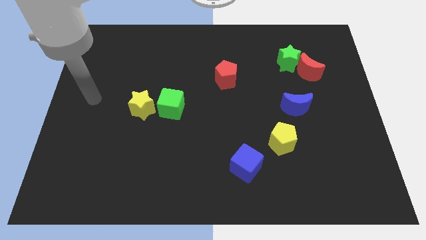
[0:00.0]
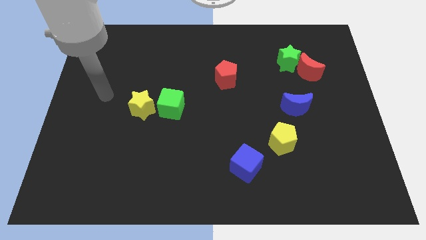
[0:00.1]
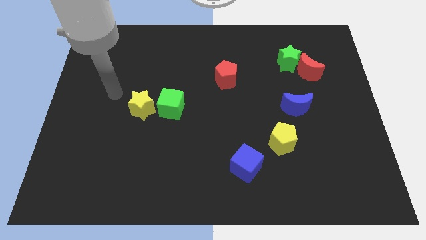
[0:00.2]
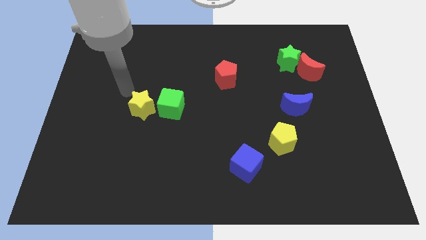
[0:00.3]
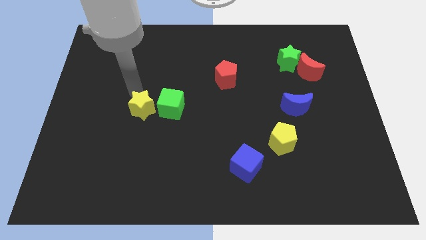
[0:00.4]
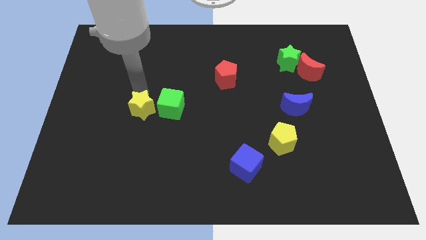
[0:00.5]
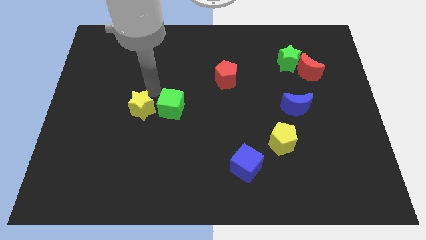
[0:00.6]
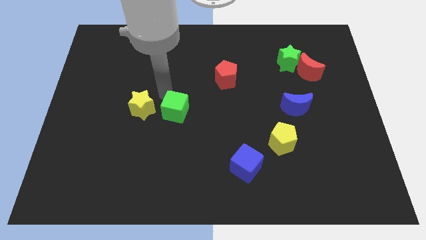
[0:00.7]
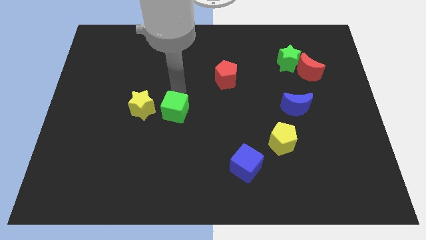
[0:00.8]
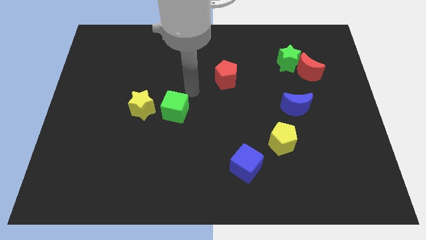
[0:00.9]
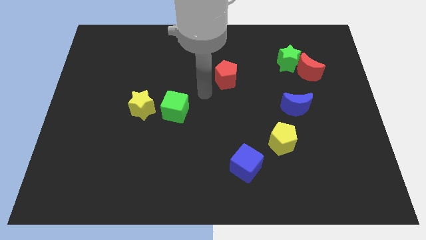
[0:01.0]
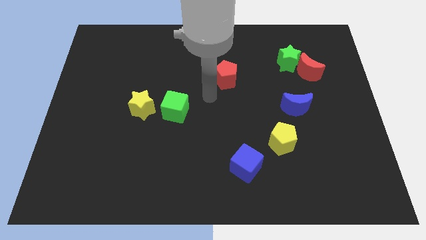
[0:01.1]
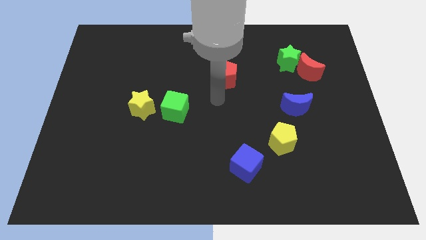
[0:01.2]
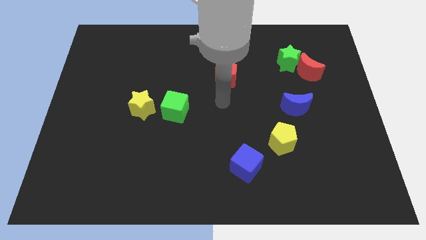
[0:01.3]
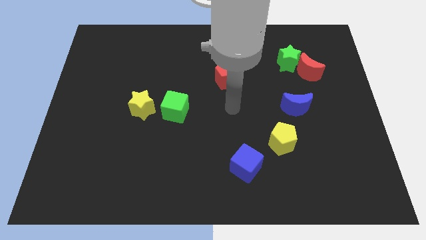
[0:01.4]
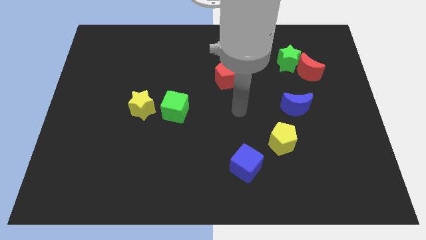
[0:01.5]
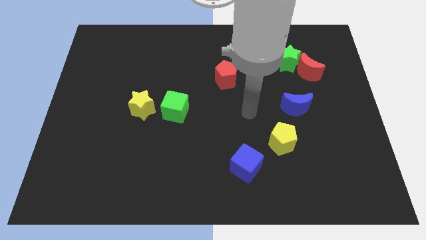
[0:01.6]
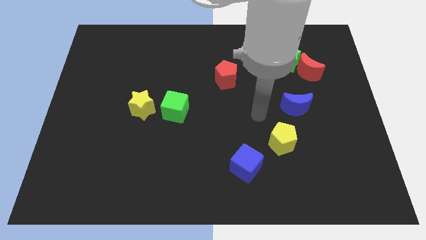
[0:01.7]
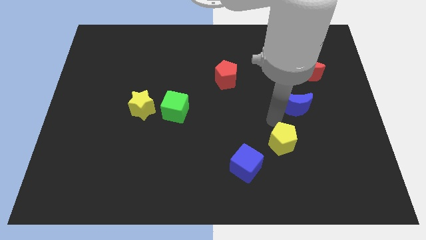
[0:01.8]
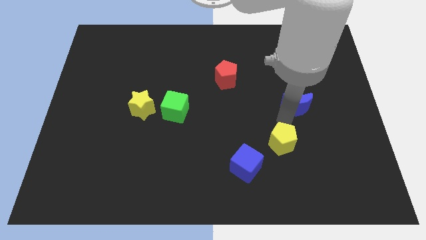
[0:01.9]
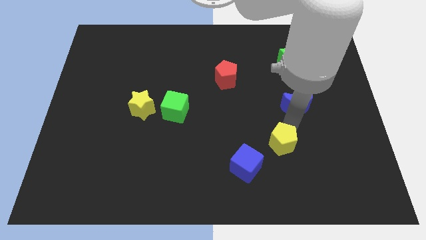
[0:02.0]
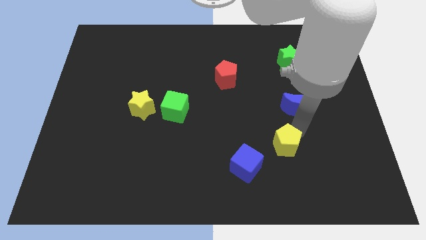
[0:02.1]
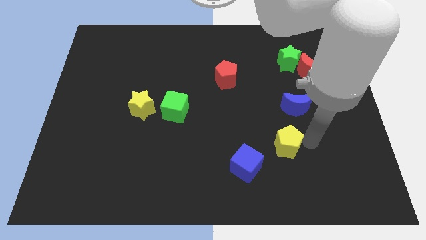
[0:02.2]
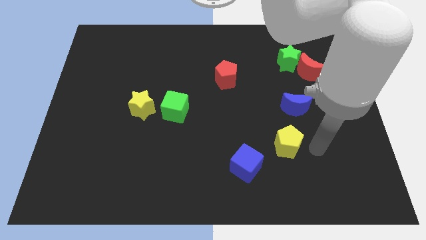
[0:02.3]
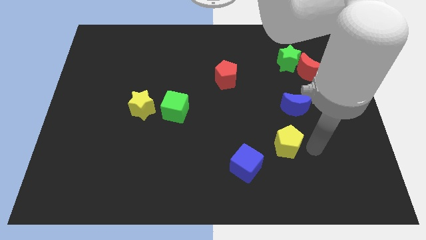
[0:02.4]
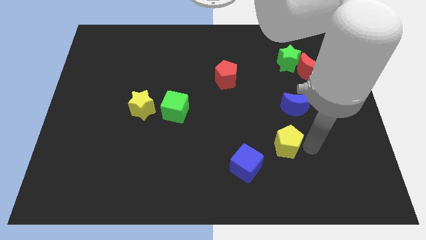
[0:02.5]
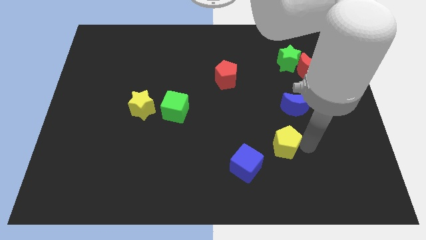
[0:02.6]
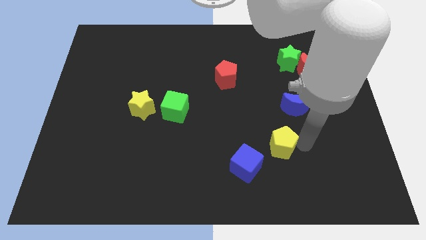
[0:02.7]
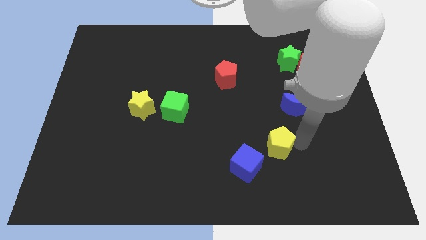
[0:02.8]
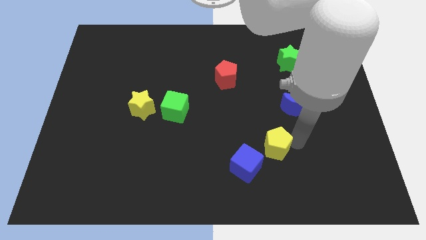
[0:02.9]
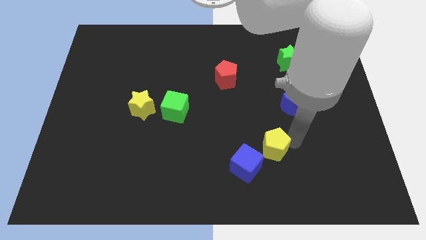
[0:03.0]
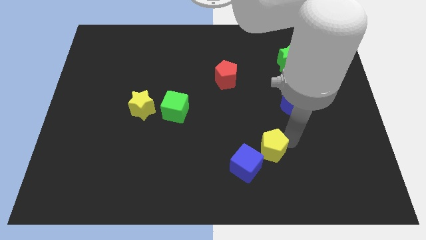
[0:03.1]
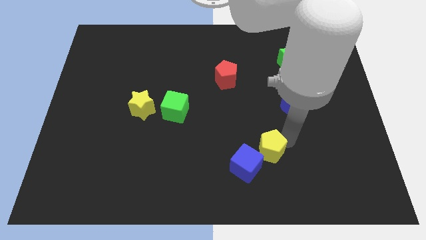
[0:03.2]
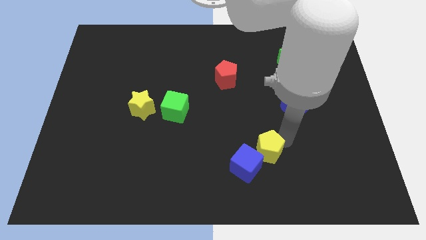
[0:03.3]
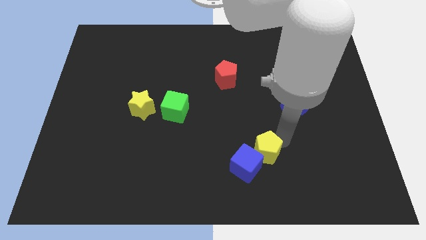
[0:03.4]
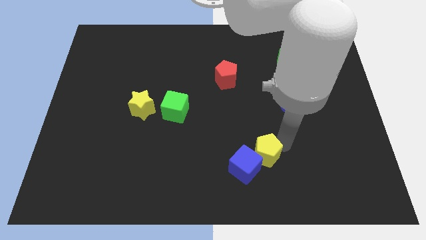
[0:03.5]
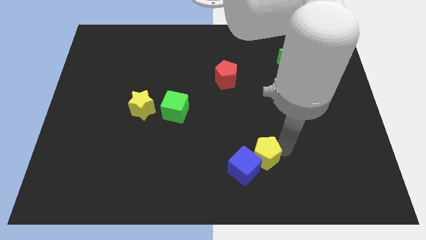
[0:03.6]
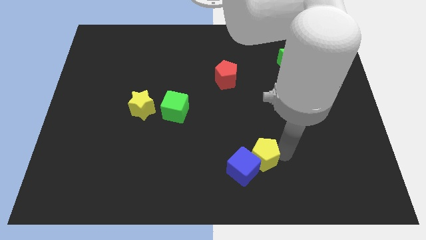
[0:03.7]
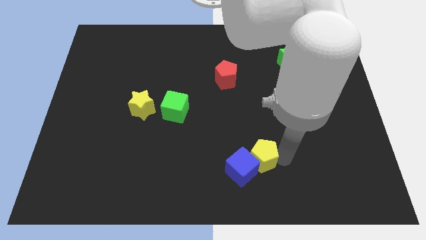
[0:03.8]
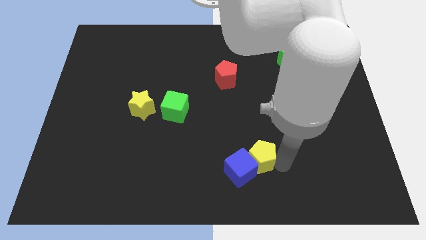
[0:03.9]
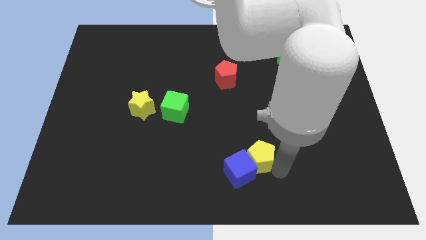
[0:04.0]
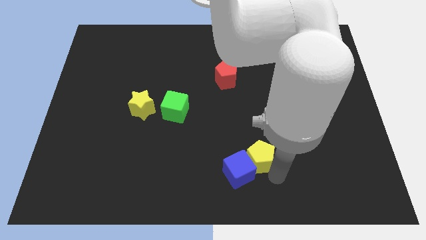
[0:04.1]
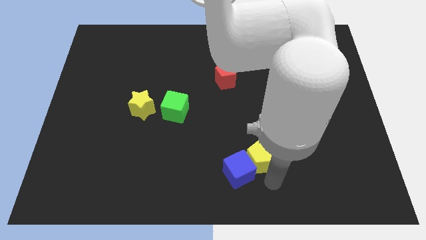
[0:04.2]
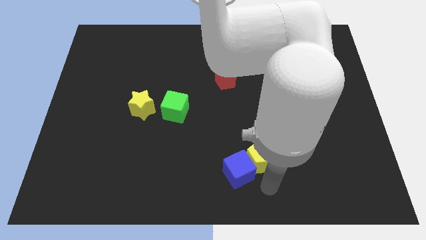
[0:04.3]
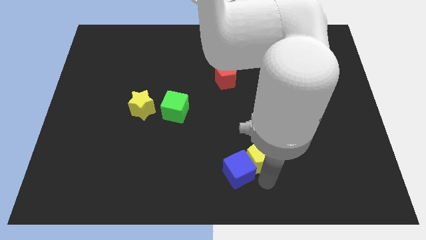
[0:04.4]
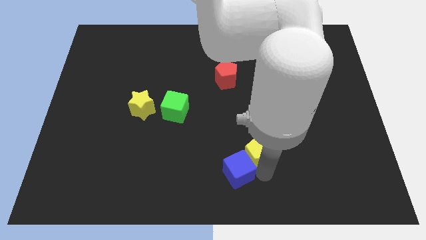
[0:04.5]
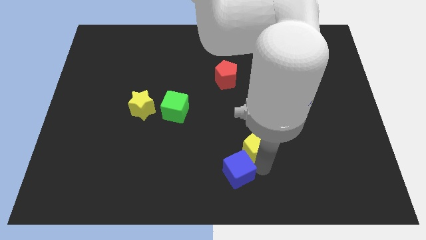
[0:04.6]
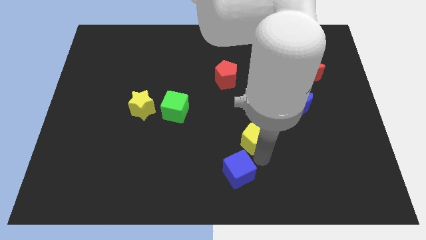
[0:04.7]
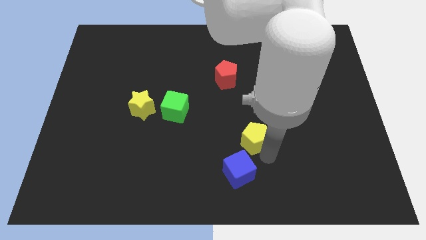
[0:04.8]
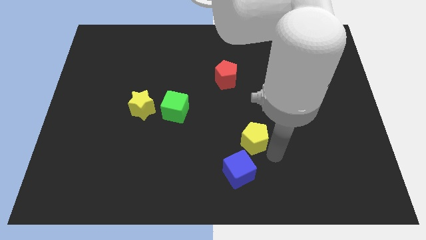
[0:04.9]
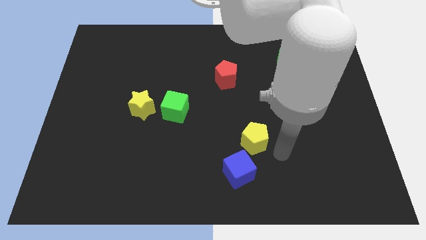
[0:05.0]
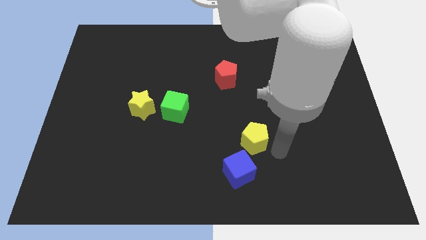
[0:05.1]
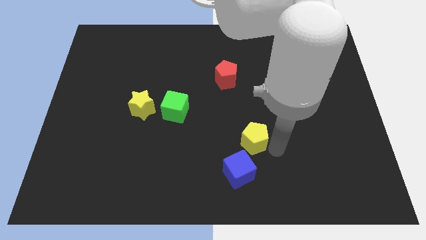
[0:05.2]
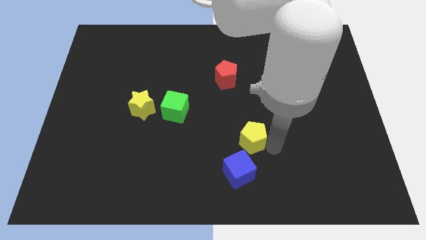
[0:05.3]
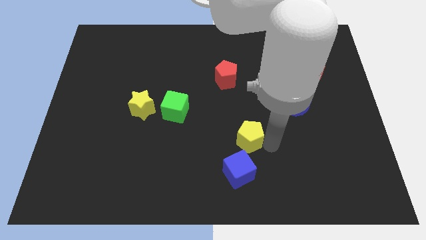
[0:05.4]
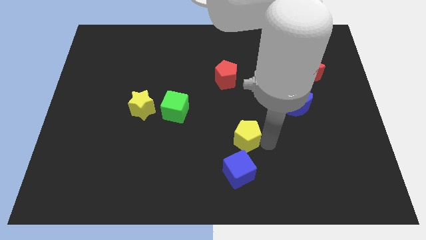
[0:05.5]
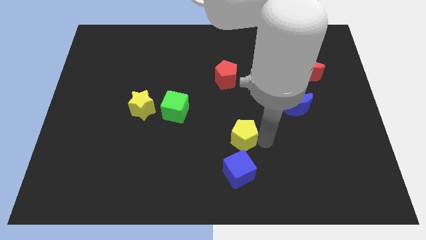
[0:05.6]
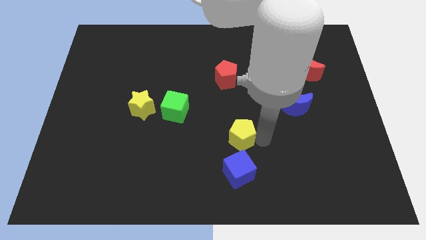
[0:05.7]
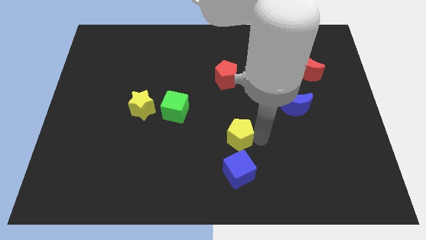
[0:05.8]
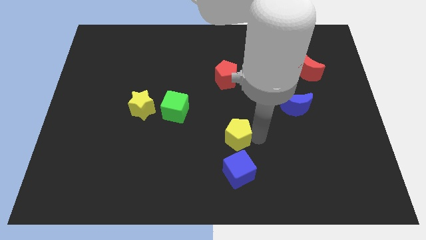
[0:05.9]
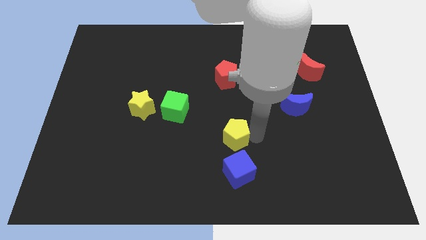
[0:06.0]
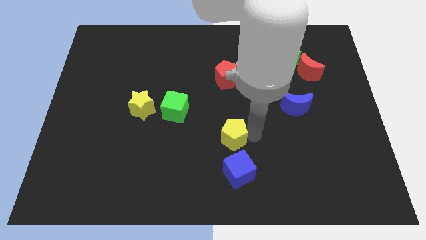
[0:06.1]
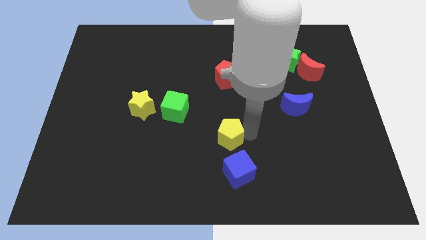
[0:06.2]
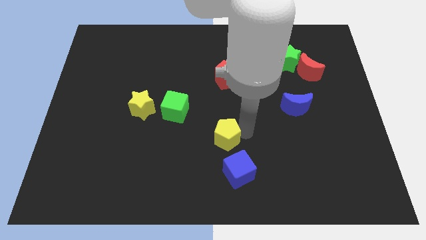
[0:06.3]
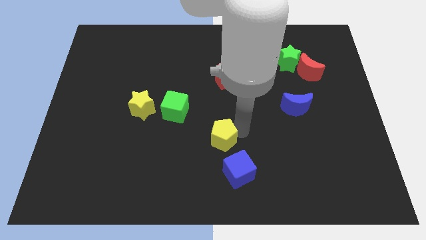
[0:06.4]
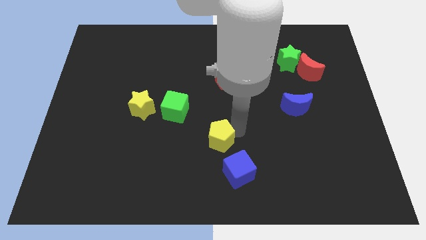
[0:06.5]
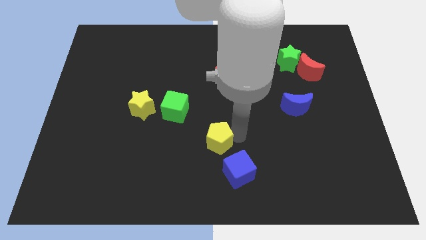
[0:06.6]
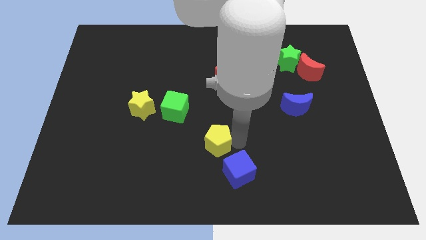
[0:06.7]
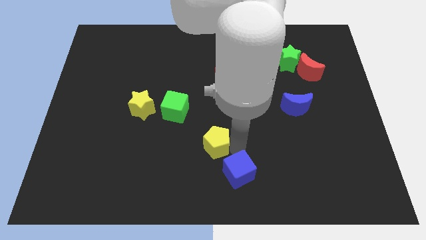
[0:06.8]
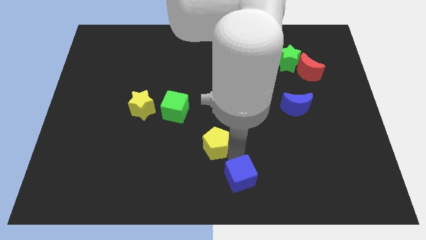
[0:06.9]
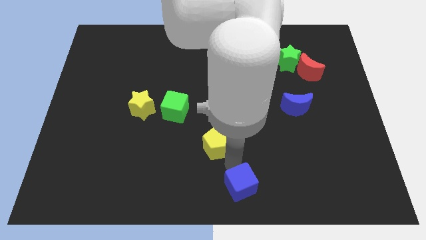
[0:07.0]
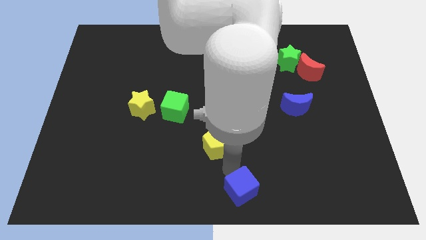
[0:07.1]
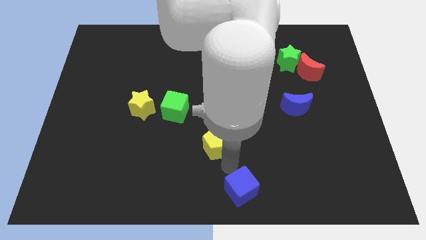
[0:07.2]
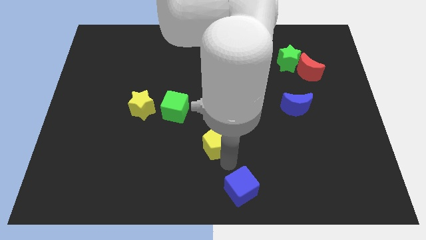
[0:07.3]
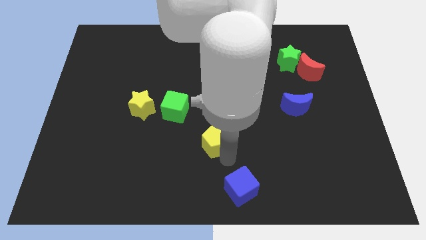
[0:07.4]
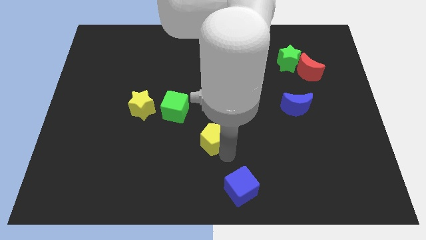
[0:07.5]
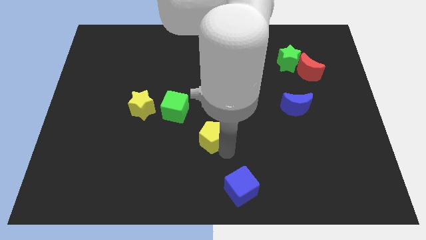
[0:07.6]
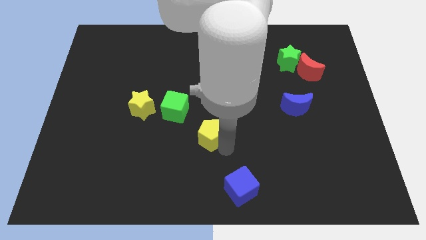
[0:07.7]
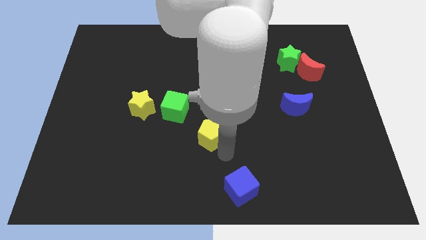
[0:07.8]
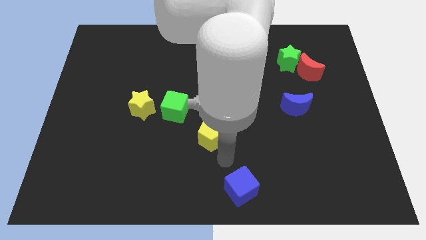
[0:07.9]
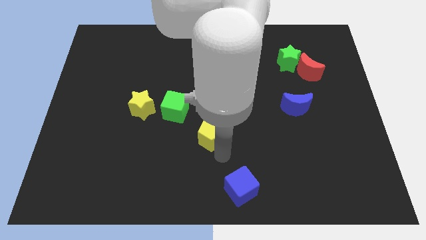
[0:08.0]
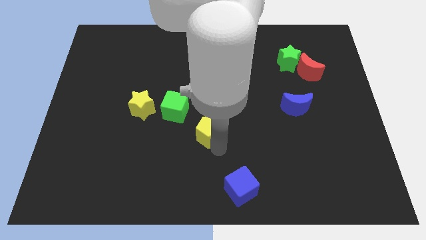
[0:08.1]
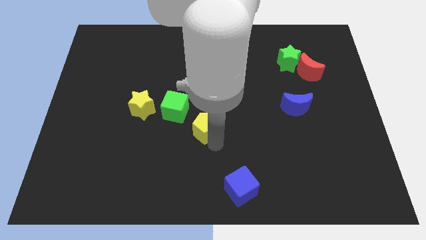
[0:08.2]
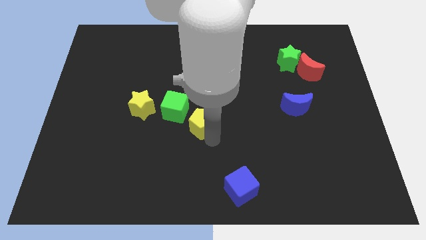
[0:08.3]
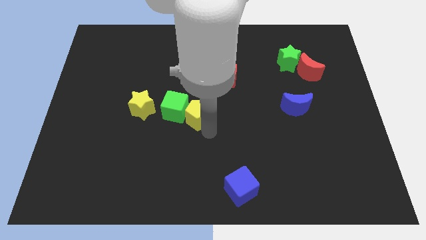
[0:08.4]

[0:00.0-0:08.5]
slide the yellow pentagon close to the green cube
